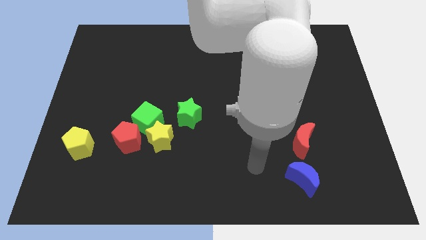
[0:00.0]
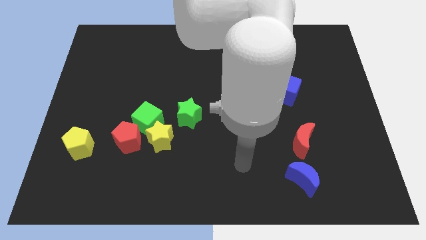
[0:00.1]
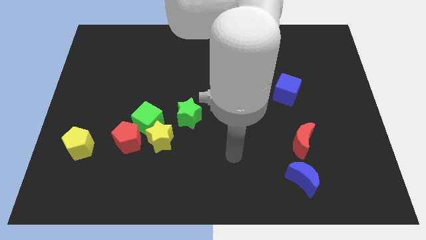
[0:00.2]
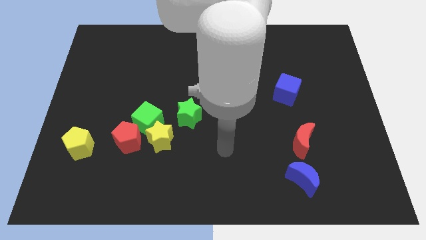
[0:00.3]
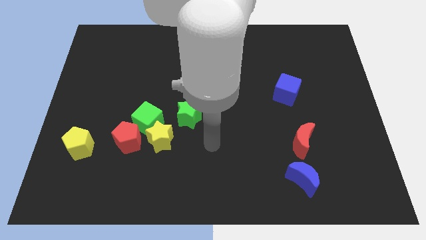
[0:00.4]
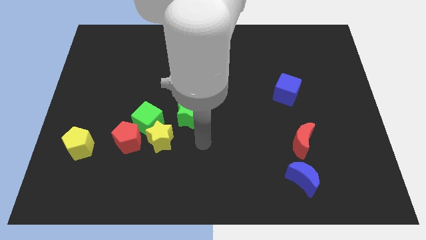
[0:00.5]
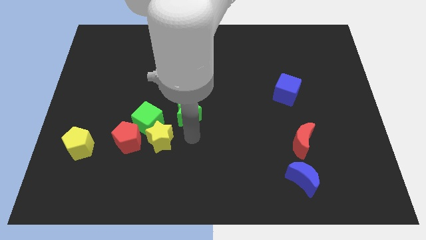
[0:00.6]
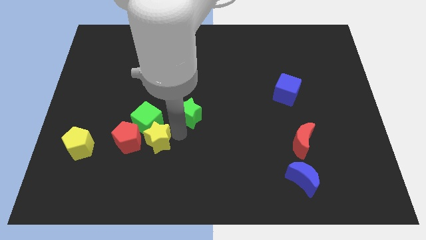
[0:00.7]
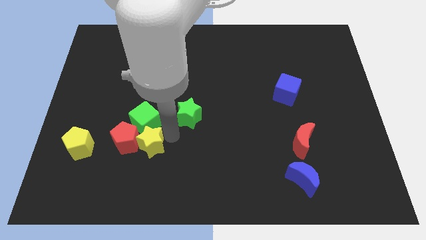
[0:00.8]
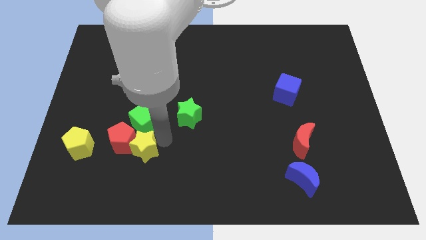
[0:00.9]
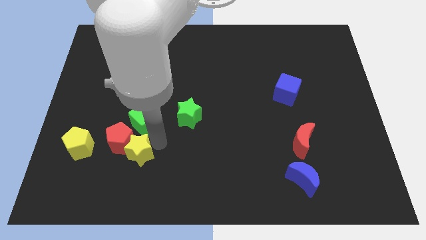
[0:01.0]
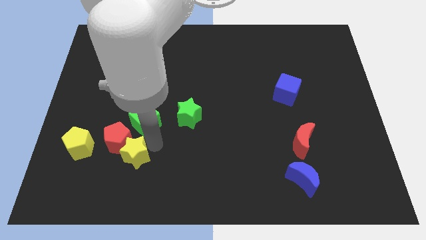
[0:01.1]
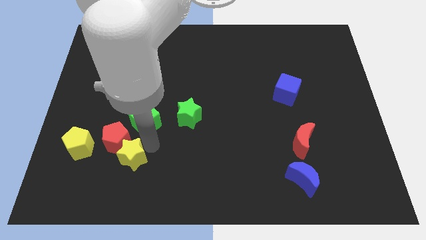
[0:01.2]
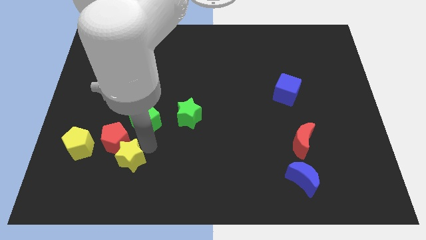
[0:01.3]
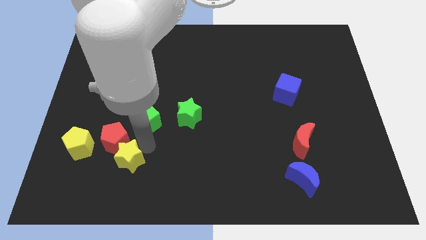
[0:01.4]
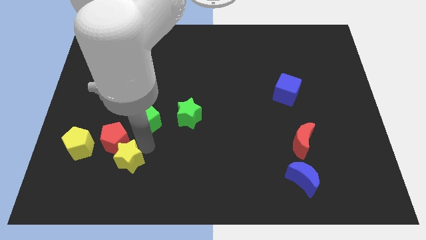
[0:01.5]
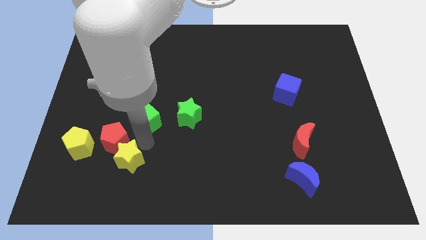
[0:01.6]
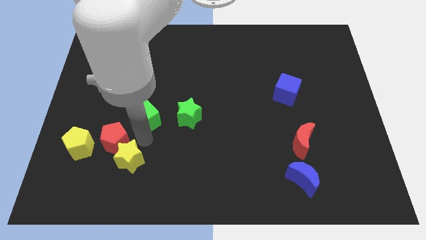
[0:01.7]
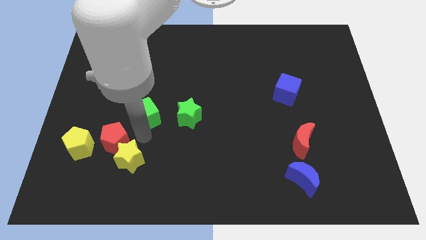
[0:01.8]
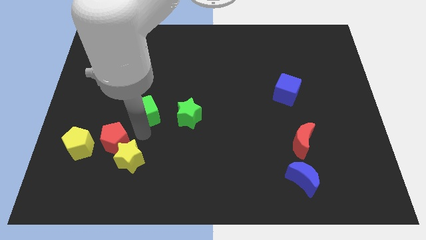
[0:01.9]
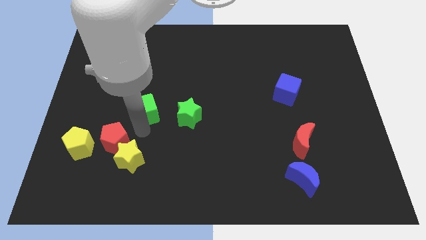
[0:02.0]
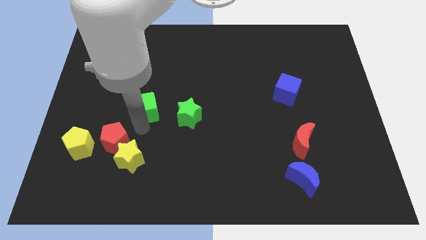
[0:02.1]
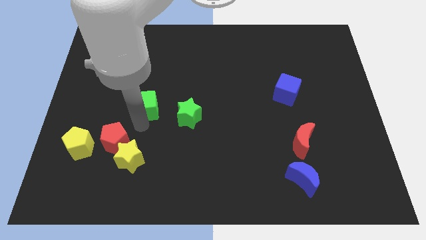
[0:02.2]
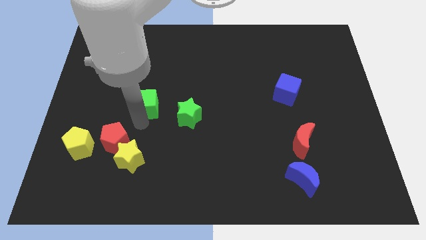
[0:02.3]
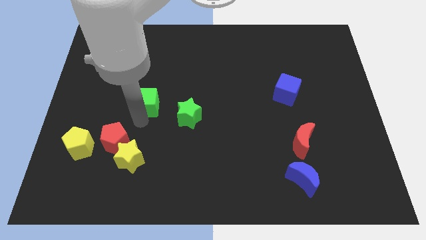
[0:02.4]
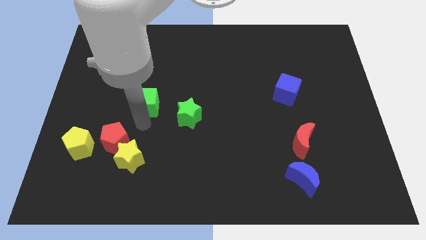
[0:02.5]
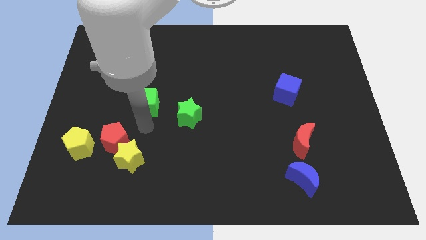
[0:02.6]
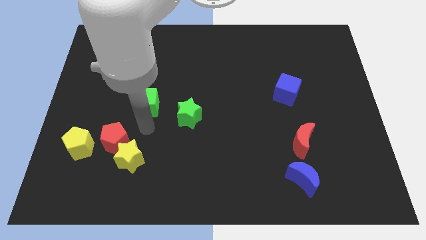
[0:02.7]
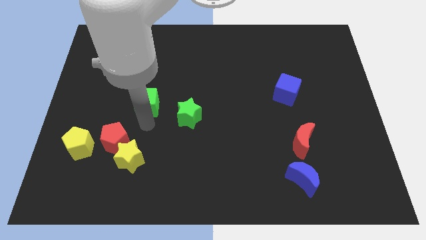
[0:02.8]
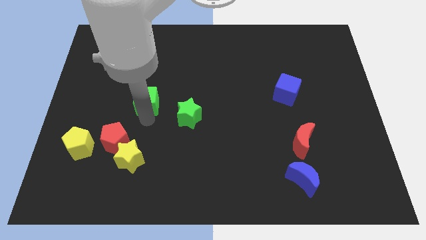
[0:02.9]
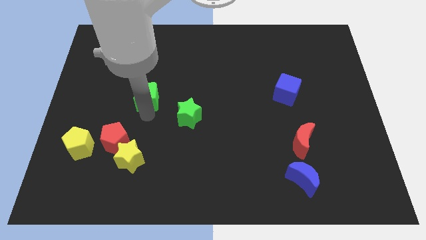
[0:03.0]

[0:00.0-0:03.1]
pull the green cube apart from the yellow star, red pentagon, and green star

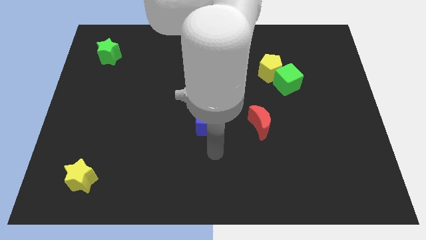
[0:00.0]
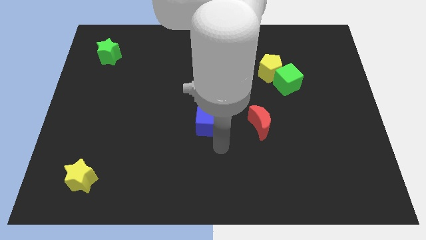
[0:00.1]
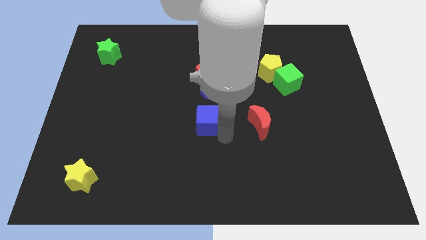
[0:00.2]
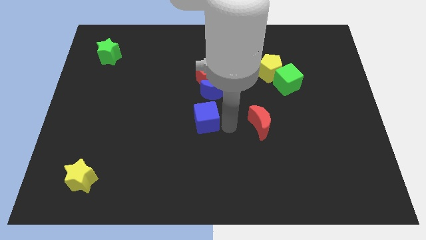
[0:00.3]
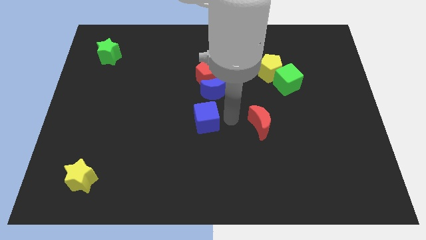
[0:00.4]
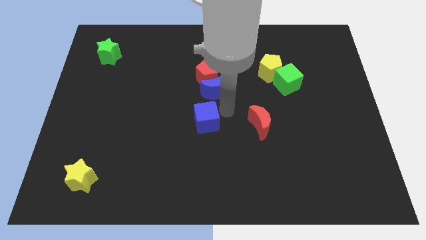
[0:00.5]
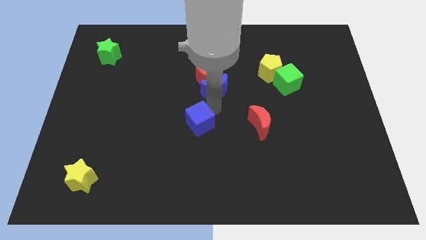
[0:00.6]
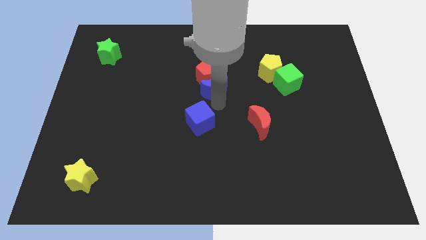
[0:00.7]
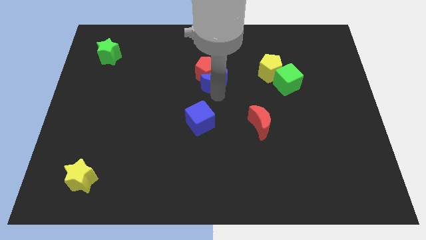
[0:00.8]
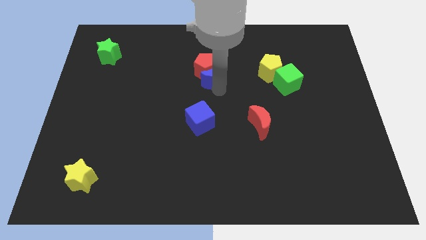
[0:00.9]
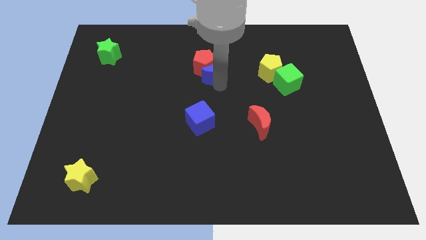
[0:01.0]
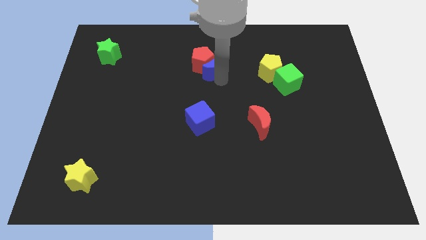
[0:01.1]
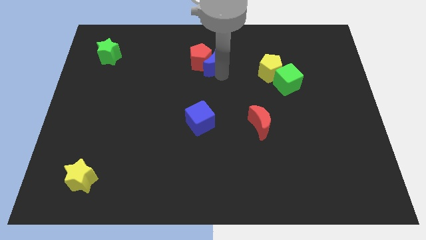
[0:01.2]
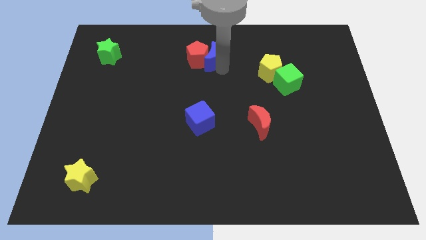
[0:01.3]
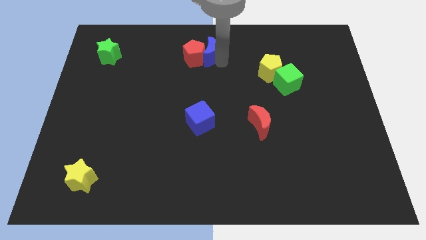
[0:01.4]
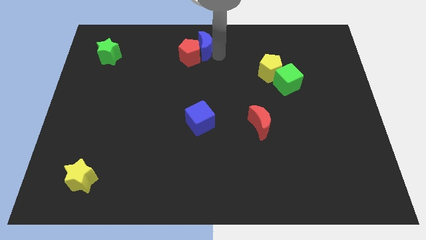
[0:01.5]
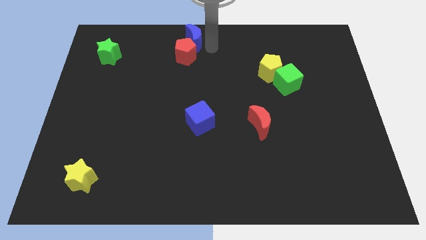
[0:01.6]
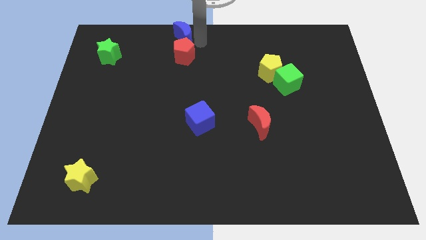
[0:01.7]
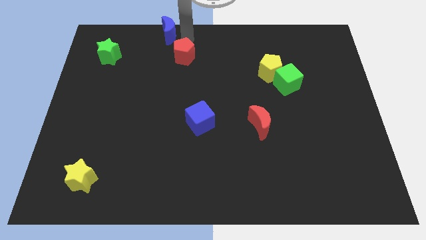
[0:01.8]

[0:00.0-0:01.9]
move the red pentagon away from the blue moon

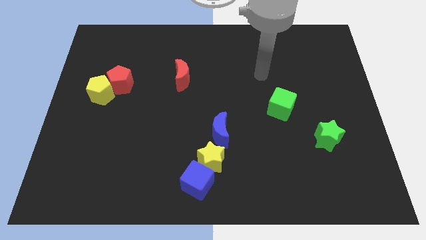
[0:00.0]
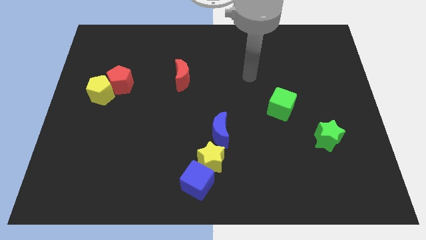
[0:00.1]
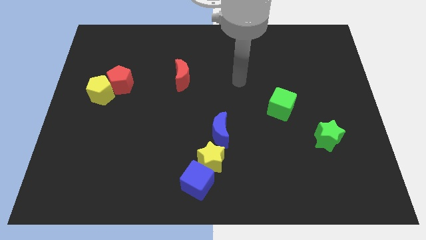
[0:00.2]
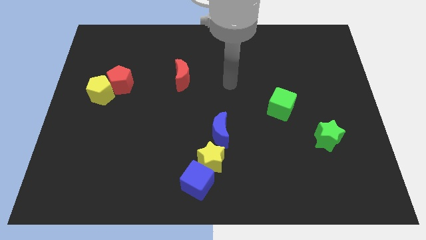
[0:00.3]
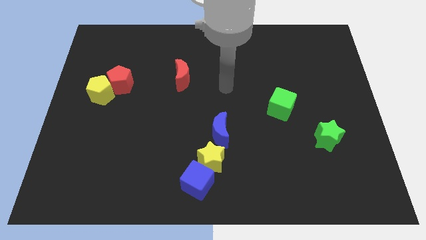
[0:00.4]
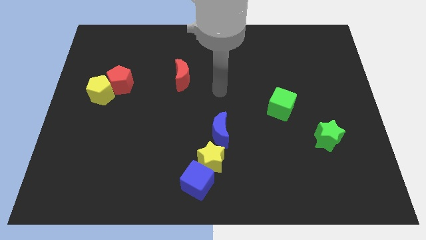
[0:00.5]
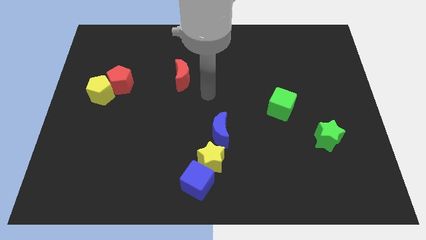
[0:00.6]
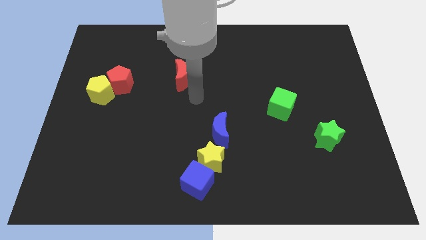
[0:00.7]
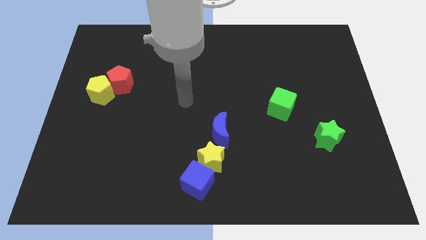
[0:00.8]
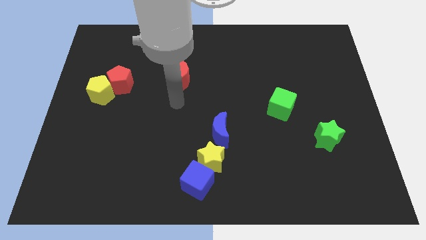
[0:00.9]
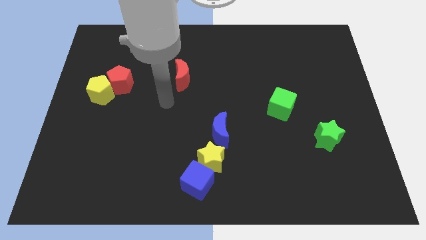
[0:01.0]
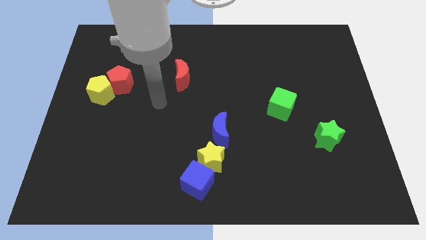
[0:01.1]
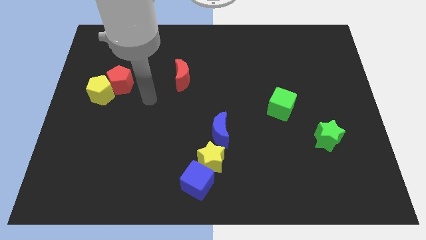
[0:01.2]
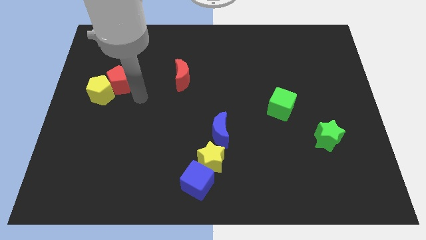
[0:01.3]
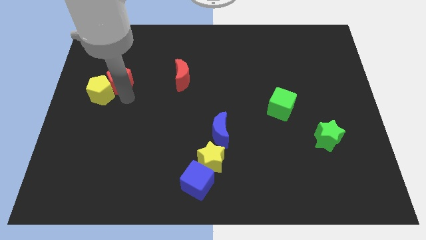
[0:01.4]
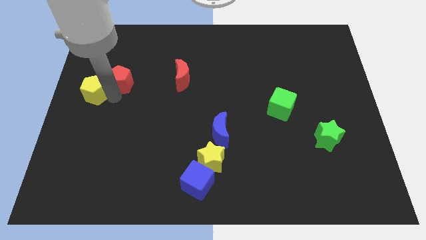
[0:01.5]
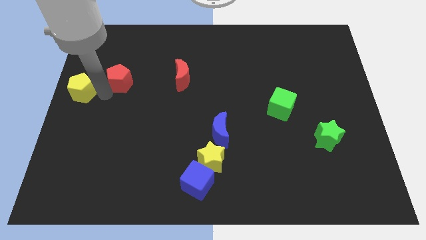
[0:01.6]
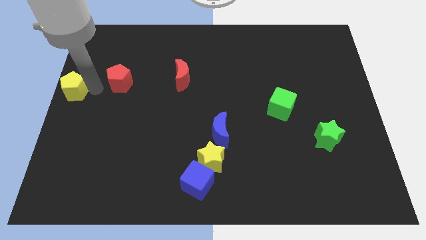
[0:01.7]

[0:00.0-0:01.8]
move the red pentagon away from the yellow pentagon

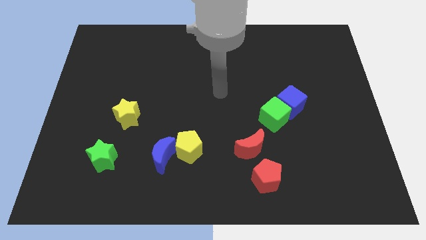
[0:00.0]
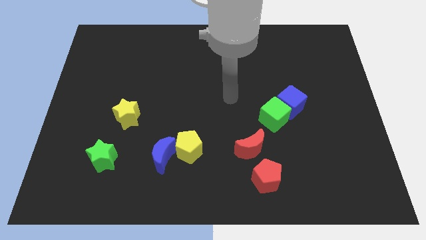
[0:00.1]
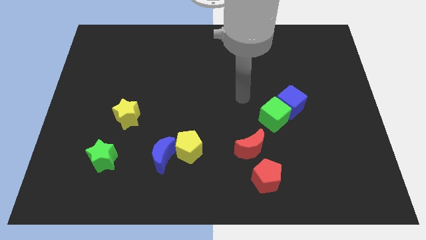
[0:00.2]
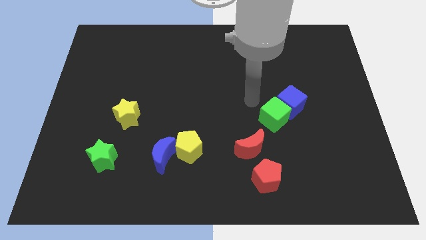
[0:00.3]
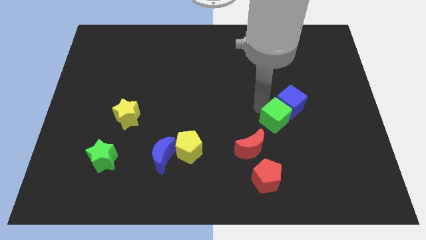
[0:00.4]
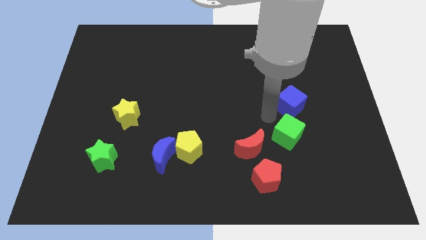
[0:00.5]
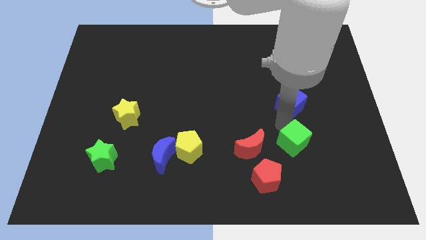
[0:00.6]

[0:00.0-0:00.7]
move the blue cube away from the green cube

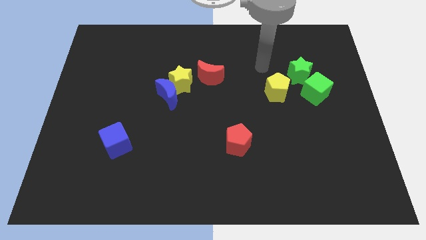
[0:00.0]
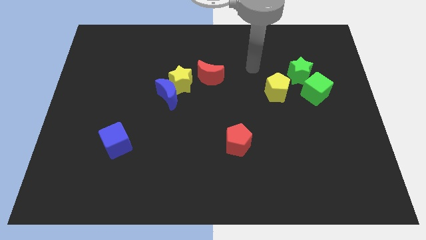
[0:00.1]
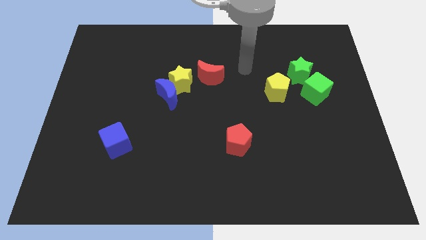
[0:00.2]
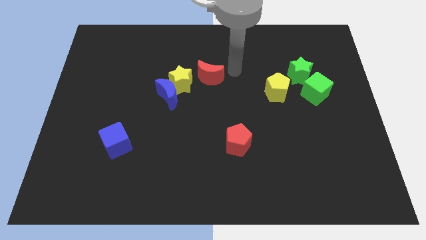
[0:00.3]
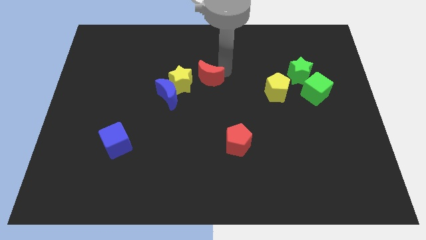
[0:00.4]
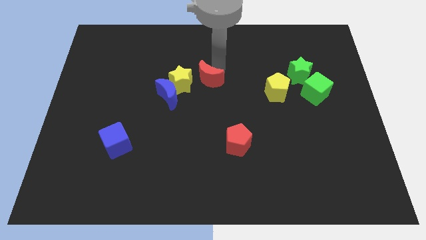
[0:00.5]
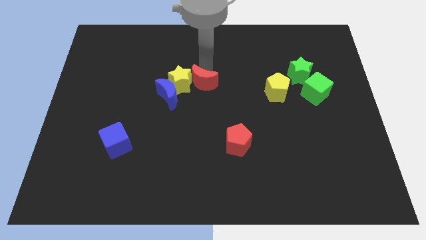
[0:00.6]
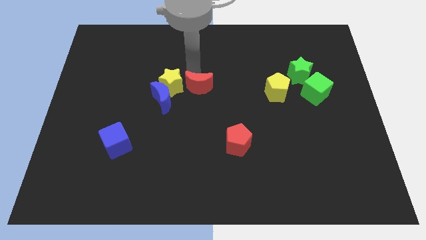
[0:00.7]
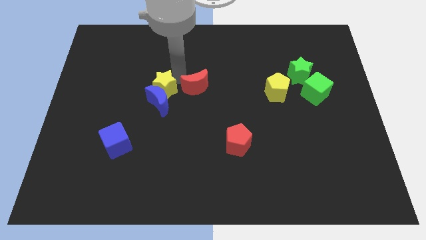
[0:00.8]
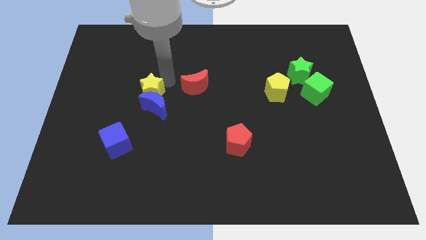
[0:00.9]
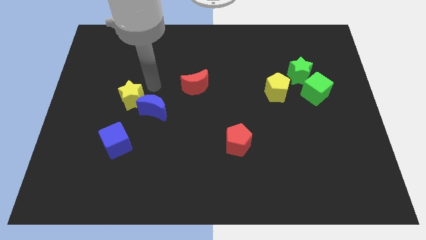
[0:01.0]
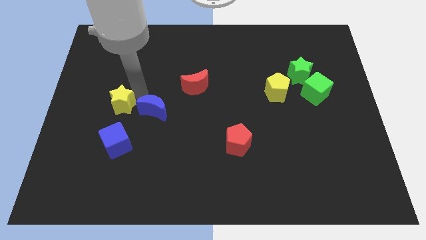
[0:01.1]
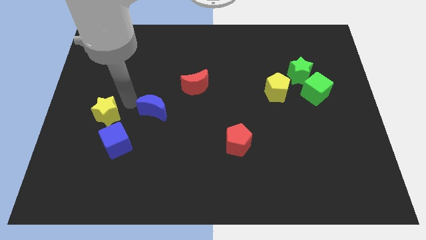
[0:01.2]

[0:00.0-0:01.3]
pull the blue moon apart from the yellow star

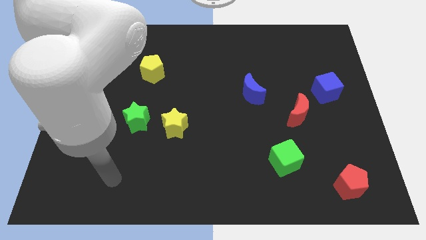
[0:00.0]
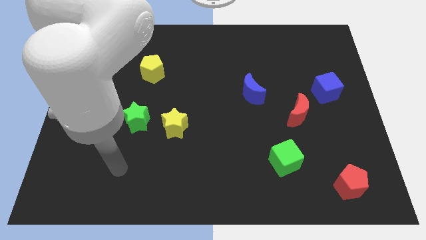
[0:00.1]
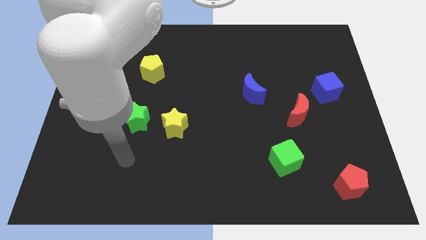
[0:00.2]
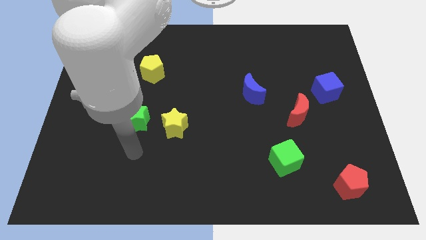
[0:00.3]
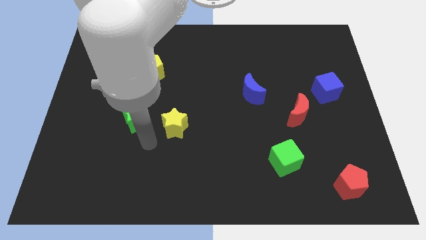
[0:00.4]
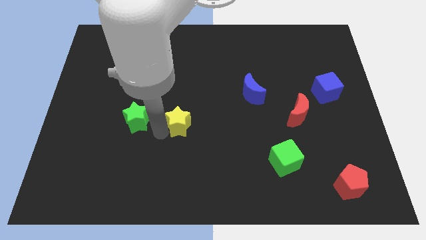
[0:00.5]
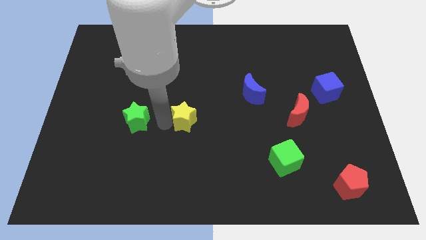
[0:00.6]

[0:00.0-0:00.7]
pull the green star apart from the yellow star
